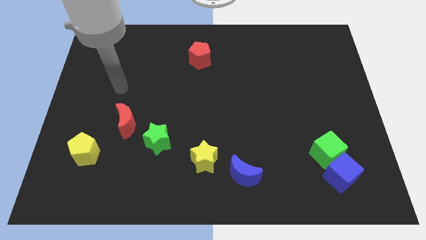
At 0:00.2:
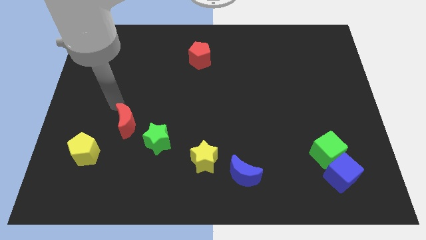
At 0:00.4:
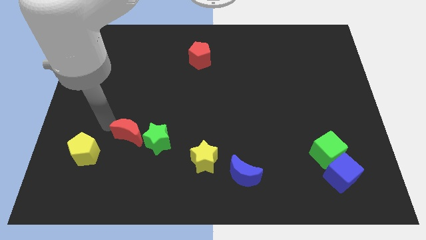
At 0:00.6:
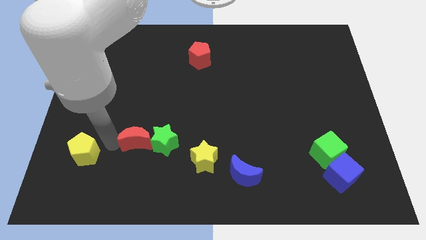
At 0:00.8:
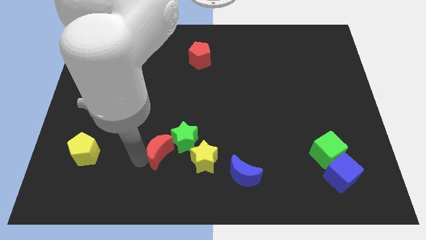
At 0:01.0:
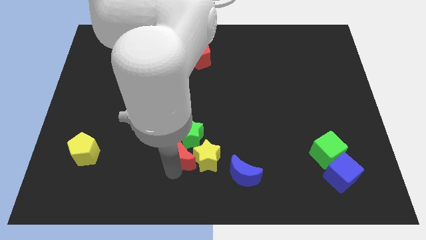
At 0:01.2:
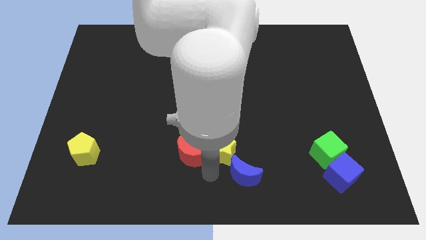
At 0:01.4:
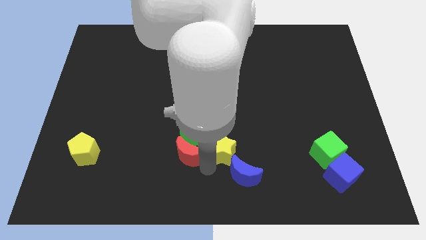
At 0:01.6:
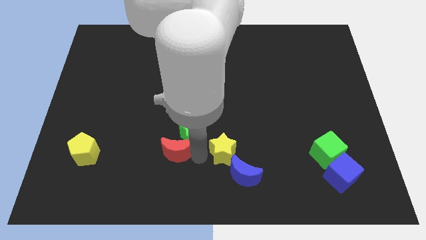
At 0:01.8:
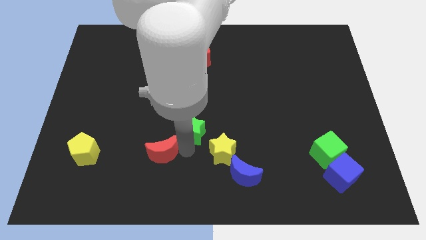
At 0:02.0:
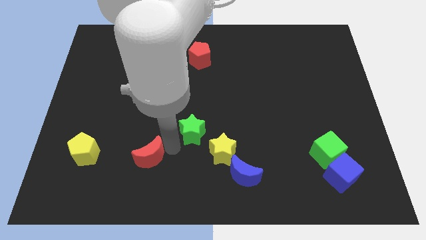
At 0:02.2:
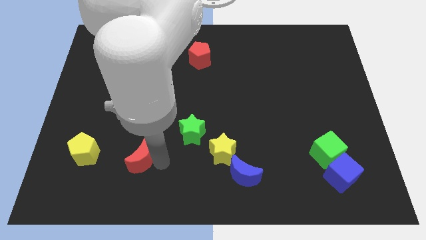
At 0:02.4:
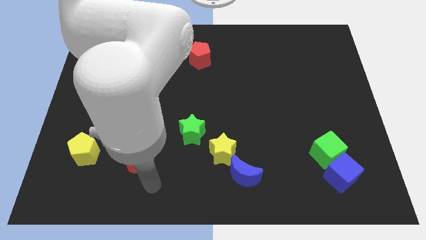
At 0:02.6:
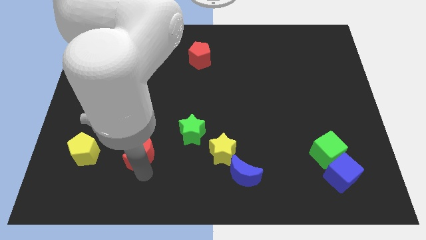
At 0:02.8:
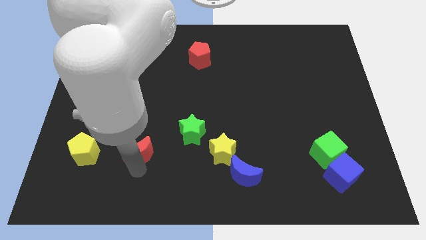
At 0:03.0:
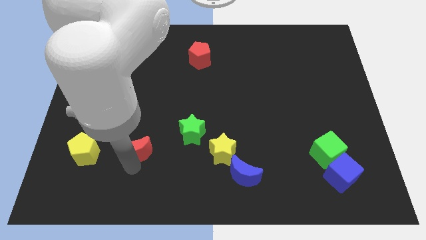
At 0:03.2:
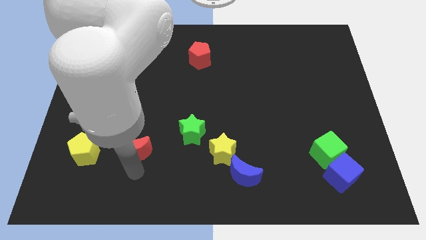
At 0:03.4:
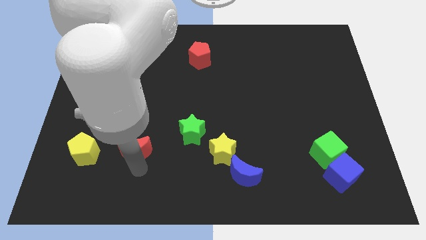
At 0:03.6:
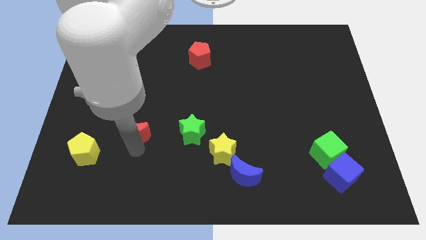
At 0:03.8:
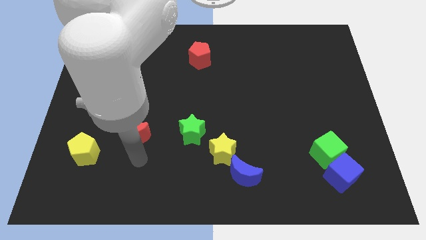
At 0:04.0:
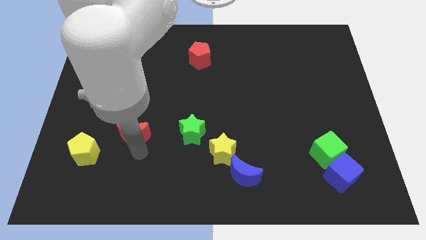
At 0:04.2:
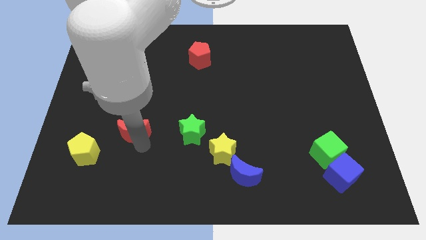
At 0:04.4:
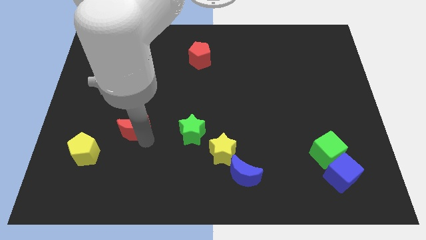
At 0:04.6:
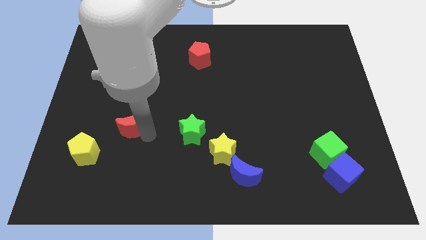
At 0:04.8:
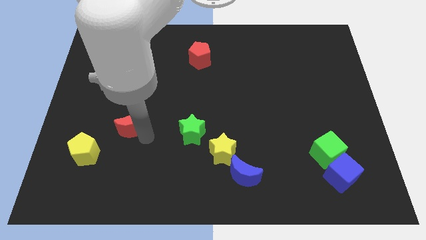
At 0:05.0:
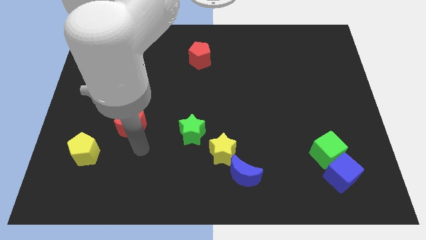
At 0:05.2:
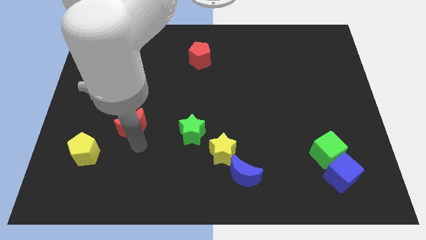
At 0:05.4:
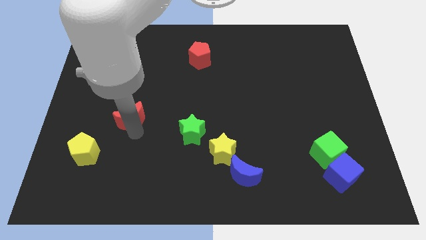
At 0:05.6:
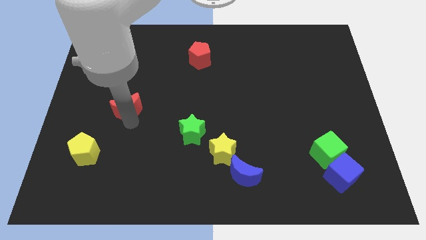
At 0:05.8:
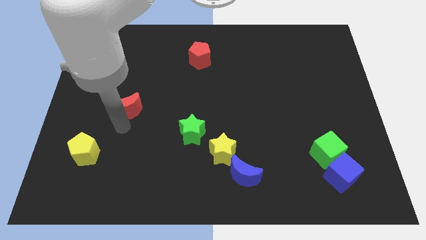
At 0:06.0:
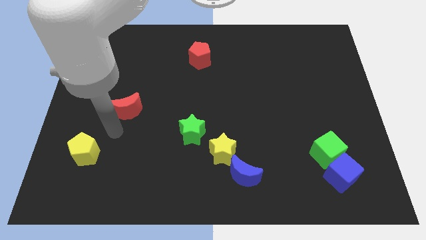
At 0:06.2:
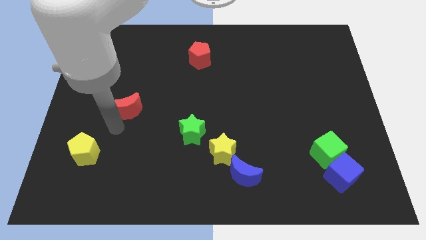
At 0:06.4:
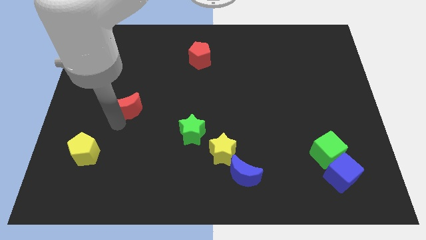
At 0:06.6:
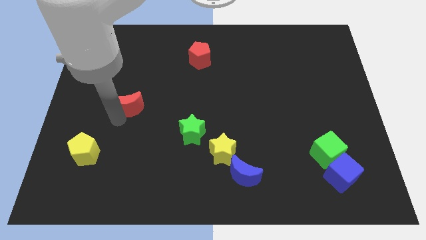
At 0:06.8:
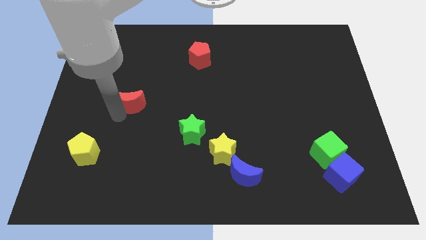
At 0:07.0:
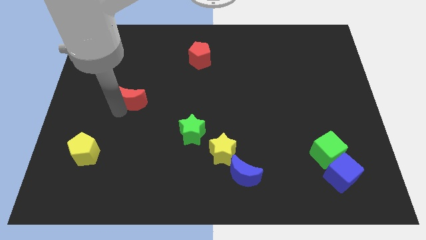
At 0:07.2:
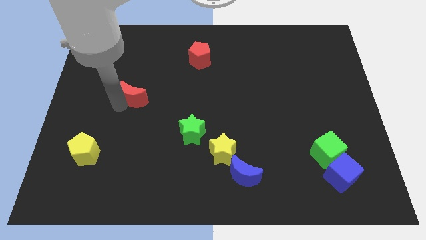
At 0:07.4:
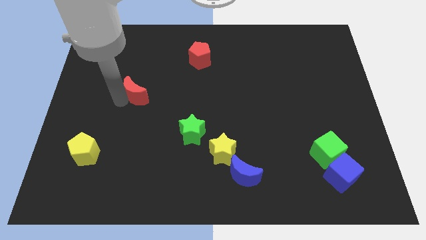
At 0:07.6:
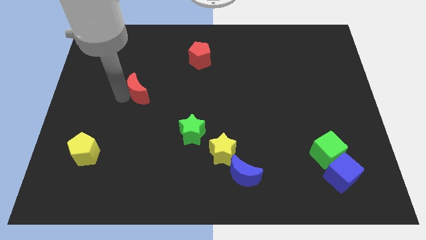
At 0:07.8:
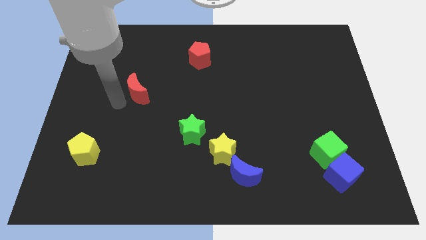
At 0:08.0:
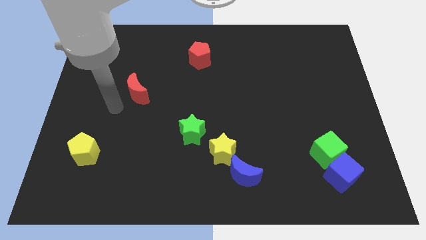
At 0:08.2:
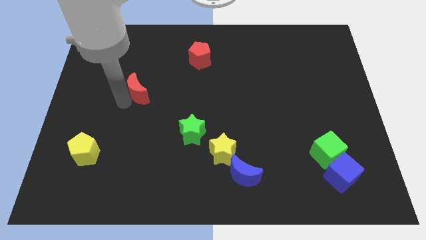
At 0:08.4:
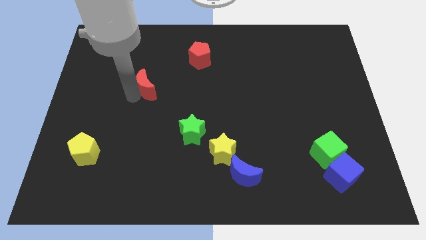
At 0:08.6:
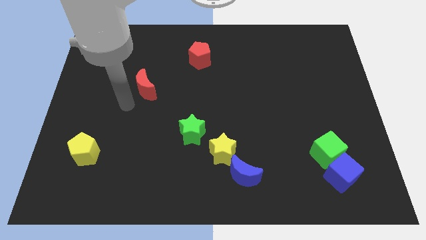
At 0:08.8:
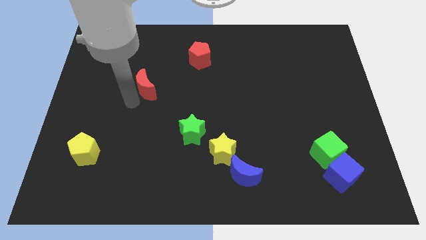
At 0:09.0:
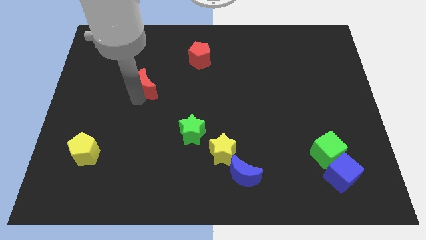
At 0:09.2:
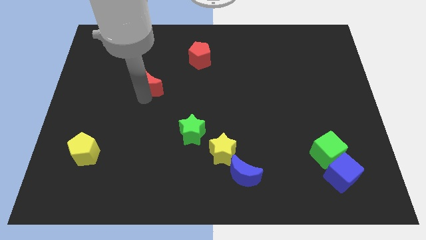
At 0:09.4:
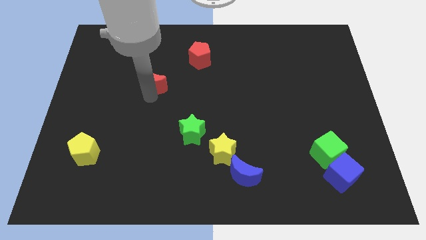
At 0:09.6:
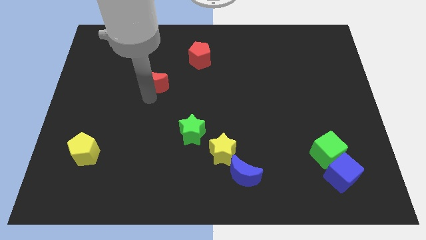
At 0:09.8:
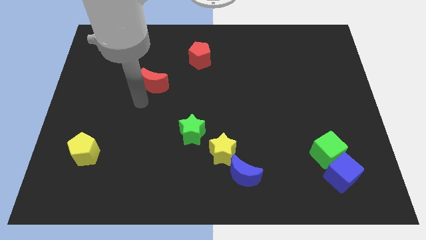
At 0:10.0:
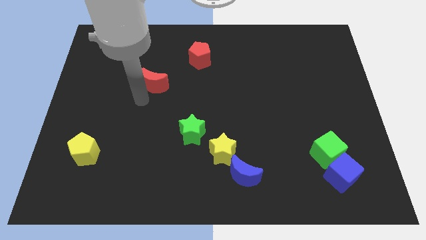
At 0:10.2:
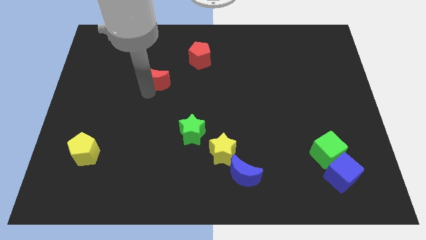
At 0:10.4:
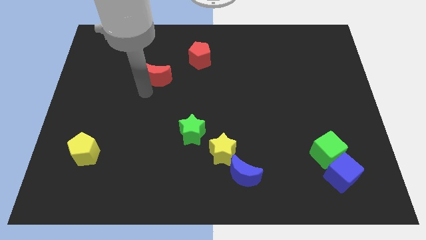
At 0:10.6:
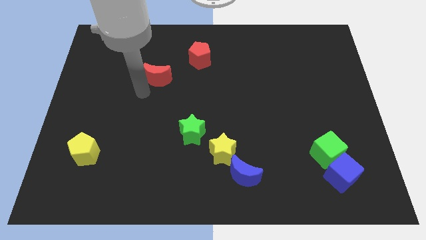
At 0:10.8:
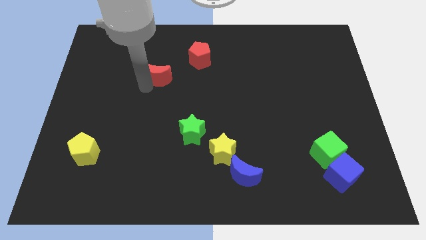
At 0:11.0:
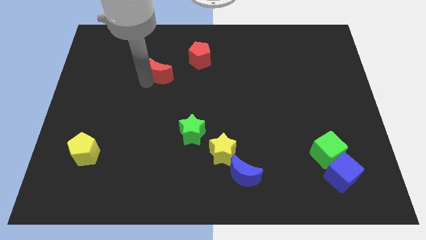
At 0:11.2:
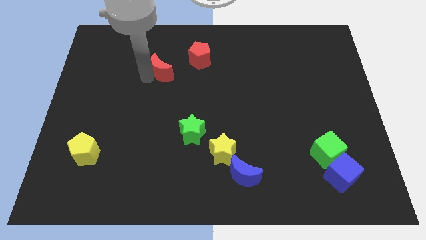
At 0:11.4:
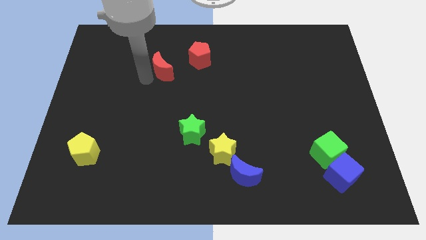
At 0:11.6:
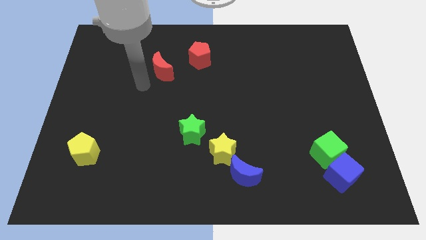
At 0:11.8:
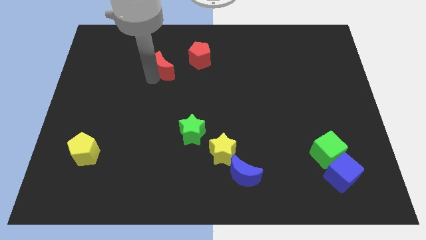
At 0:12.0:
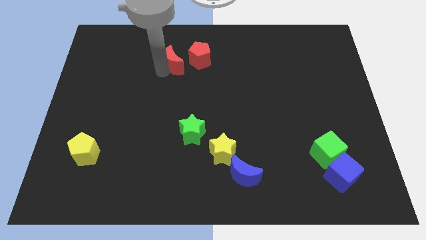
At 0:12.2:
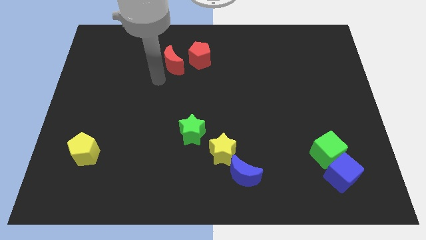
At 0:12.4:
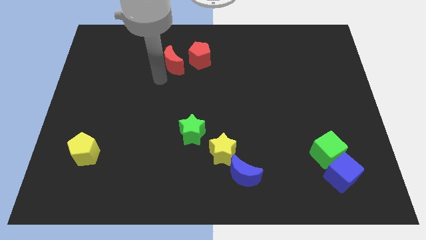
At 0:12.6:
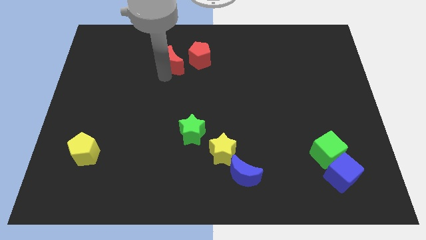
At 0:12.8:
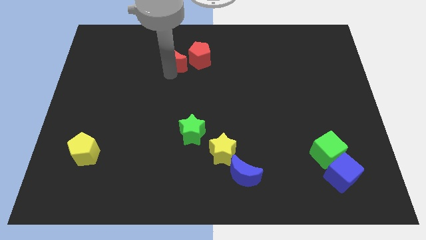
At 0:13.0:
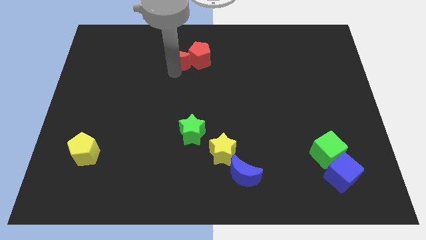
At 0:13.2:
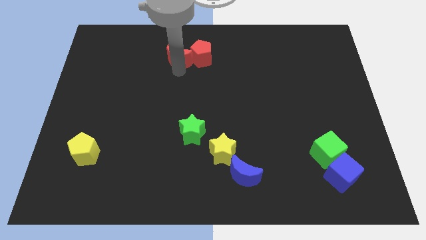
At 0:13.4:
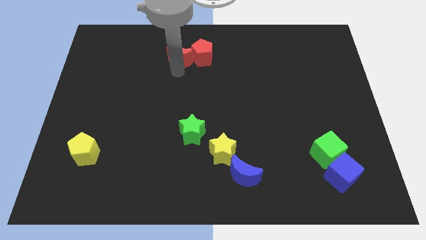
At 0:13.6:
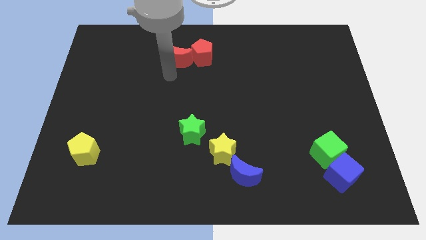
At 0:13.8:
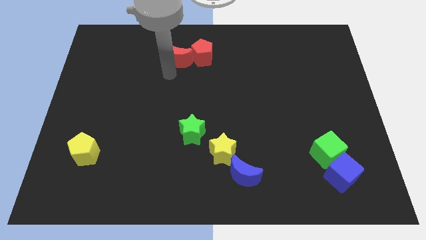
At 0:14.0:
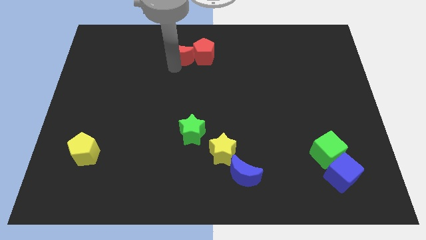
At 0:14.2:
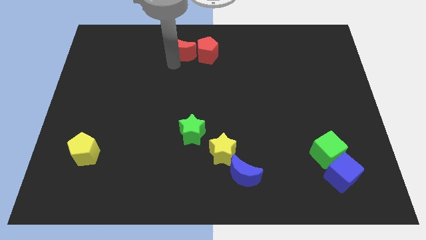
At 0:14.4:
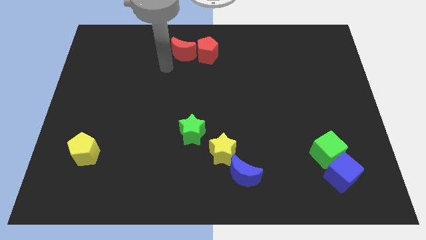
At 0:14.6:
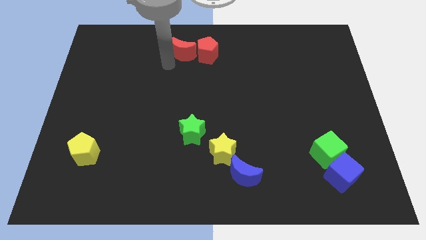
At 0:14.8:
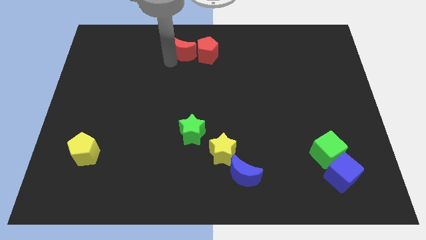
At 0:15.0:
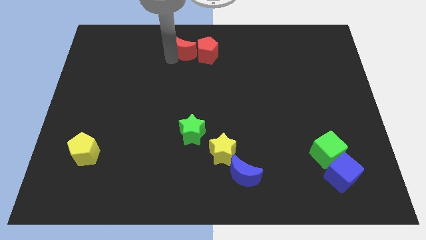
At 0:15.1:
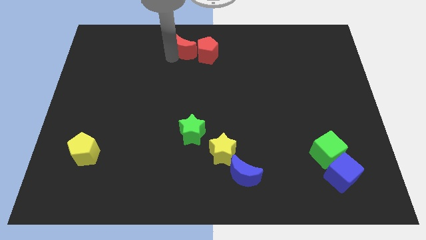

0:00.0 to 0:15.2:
slide the red moon to the top side
